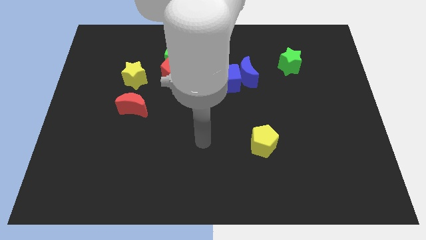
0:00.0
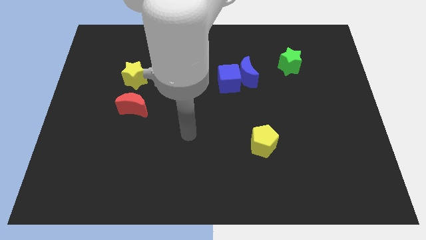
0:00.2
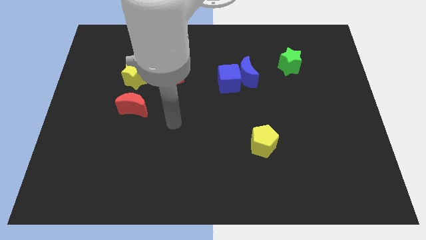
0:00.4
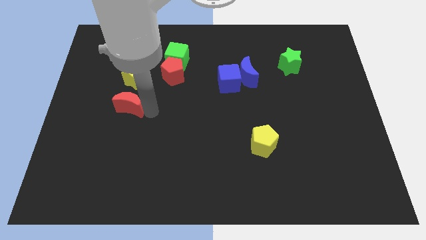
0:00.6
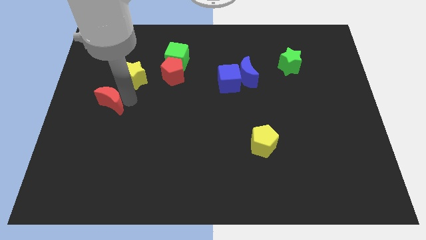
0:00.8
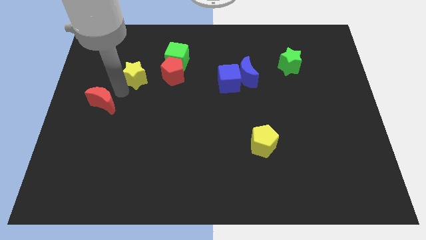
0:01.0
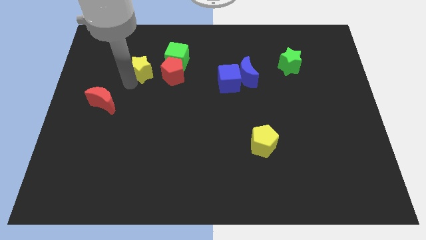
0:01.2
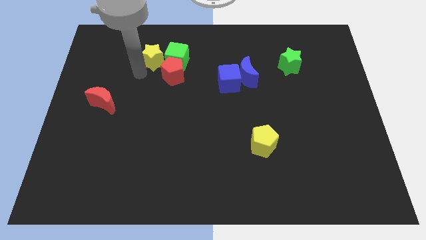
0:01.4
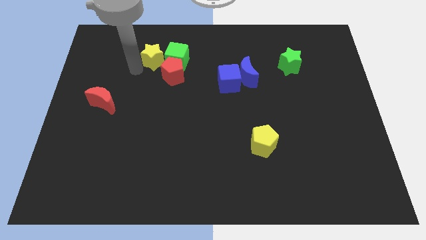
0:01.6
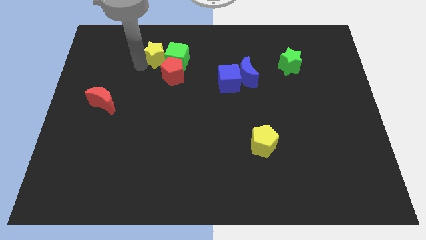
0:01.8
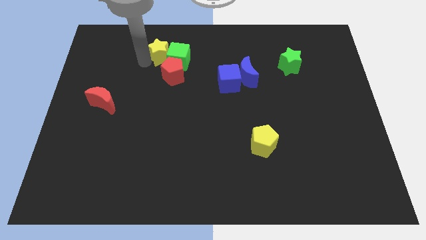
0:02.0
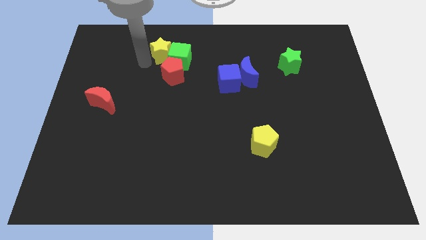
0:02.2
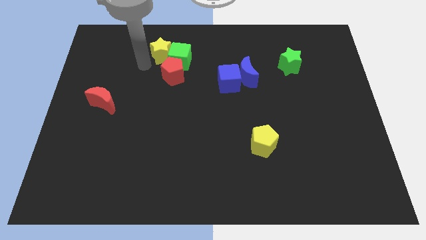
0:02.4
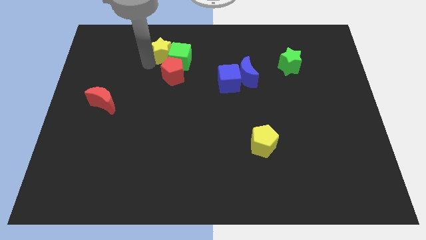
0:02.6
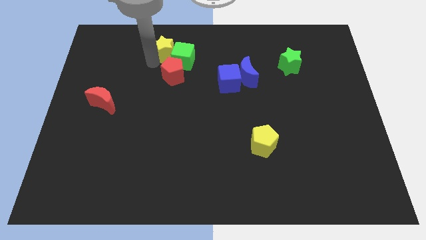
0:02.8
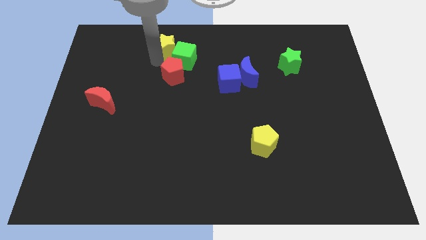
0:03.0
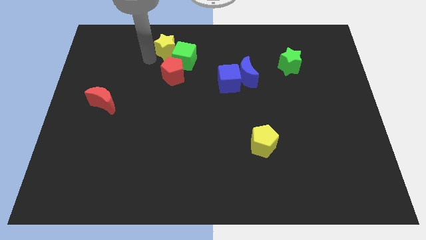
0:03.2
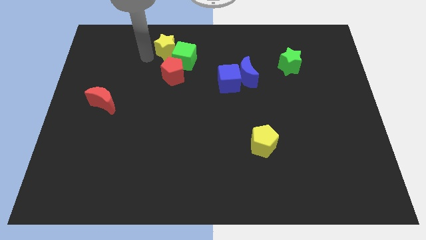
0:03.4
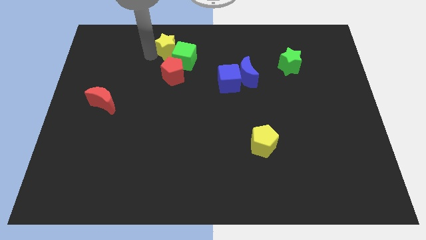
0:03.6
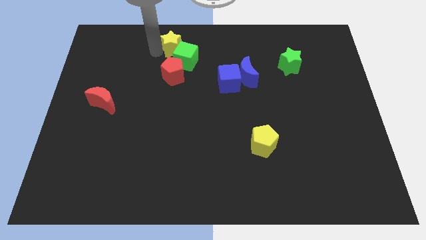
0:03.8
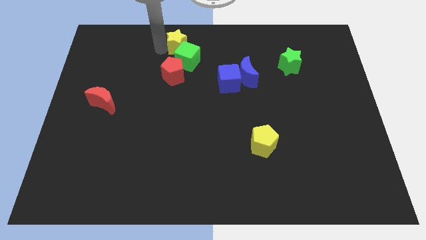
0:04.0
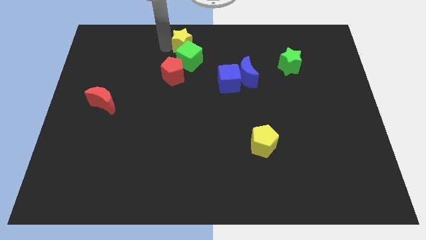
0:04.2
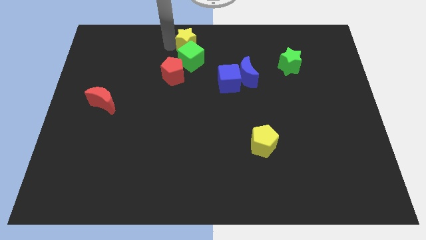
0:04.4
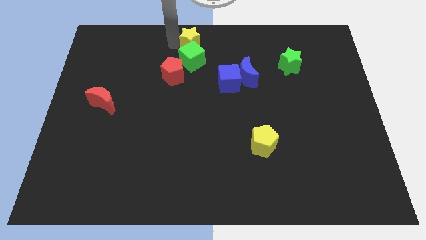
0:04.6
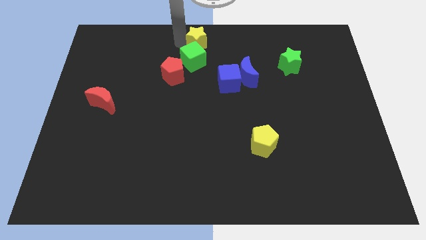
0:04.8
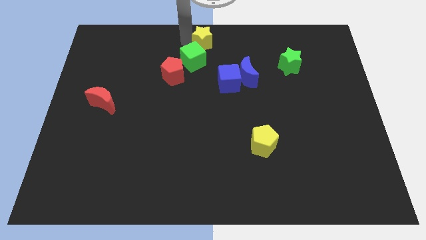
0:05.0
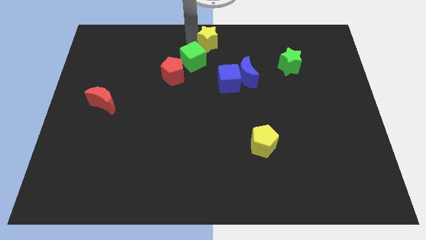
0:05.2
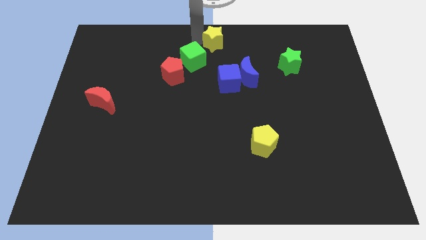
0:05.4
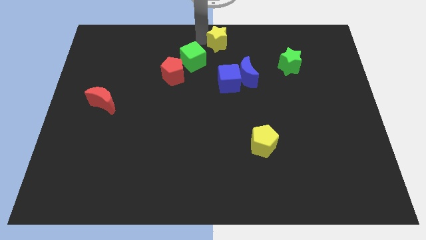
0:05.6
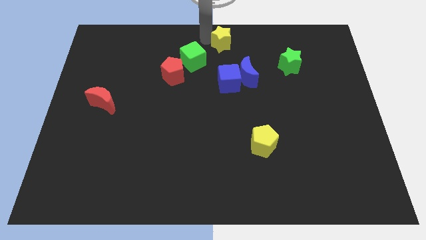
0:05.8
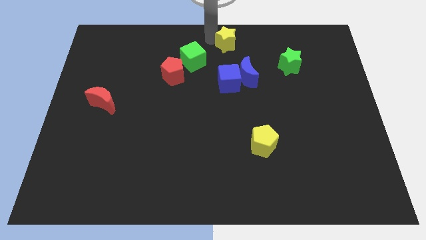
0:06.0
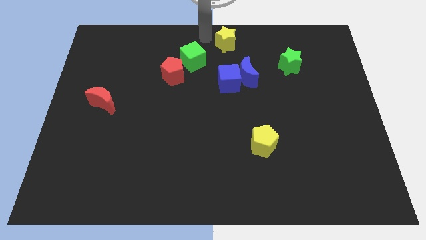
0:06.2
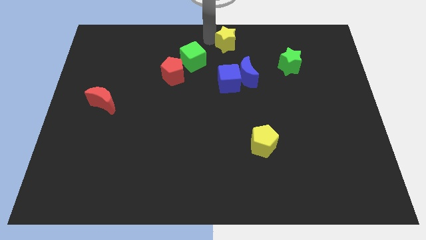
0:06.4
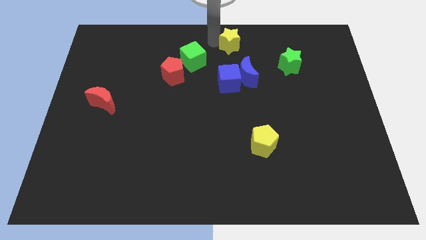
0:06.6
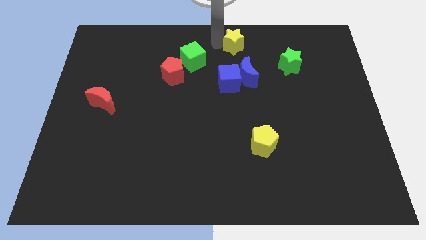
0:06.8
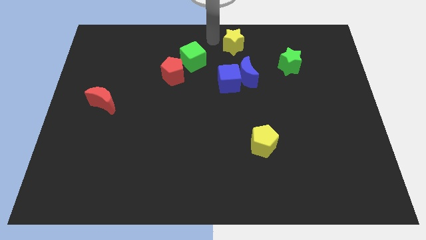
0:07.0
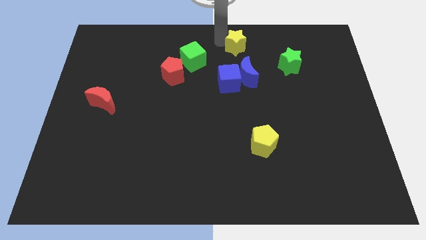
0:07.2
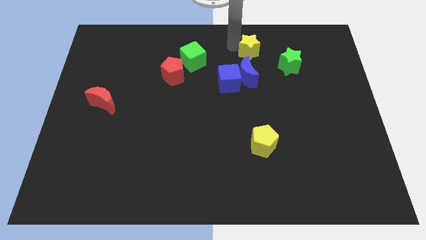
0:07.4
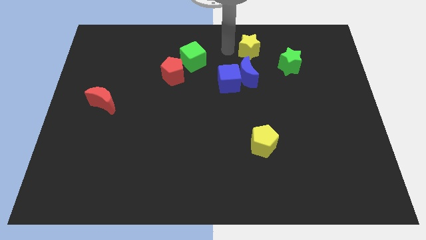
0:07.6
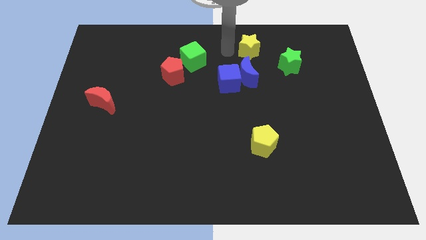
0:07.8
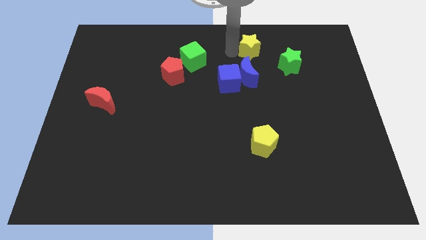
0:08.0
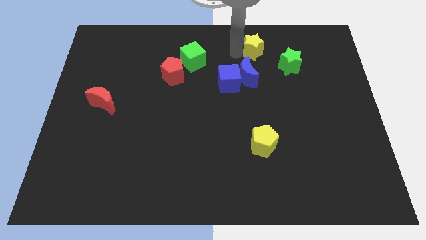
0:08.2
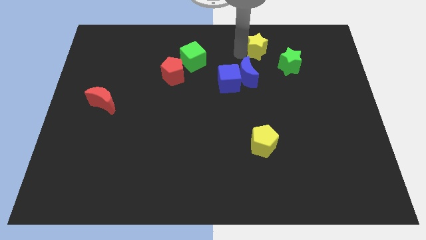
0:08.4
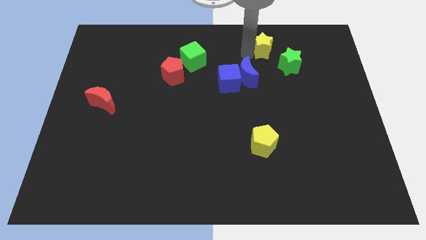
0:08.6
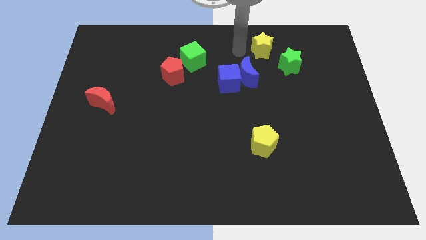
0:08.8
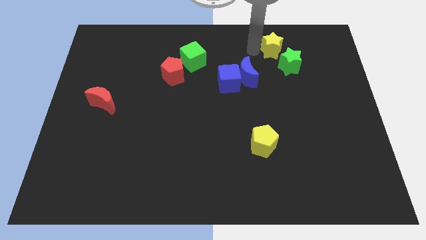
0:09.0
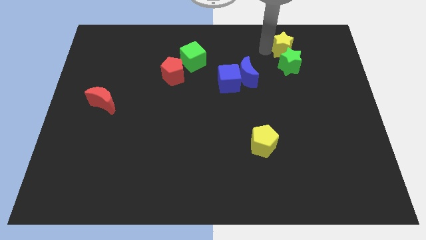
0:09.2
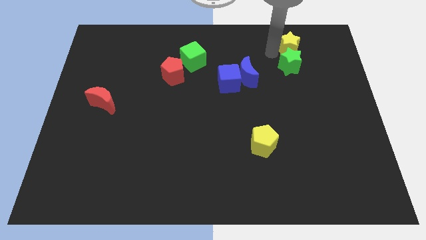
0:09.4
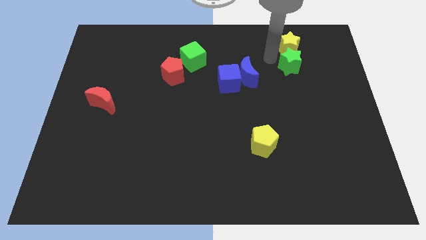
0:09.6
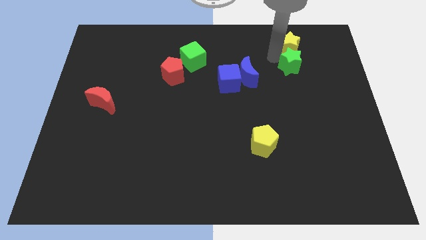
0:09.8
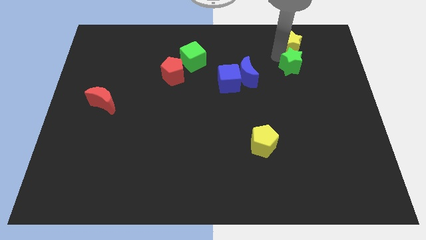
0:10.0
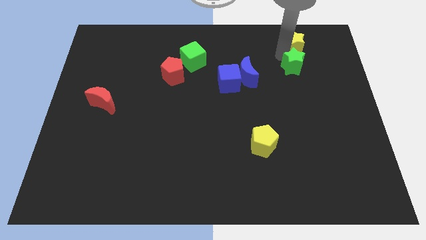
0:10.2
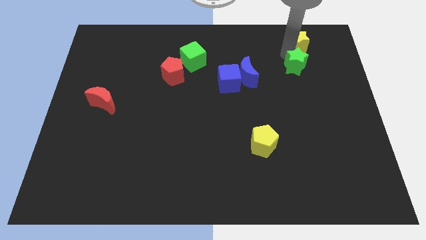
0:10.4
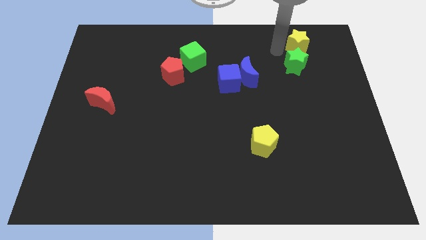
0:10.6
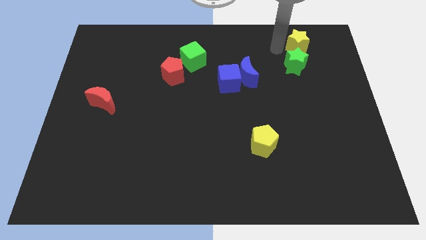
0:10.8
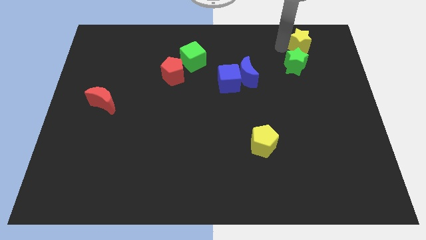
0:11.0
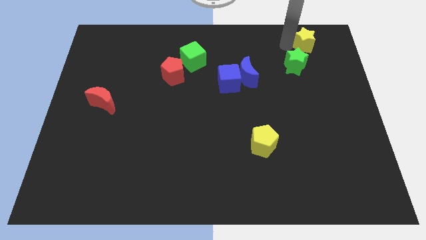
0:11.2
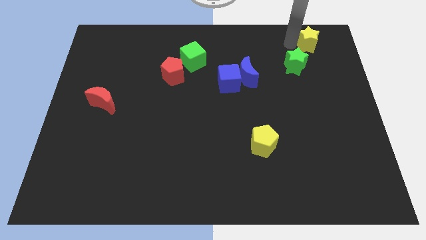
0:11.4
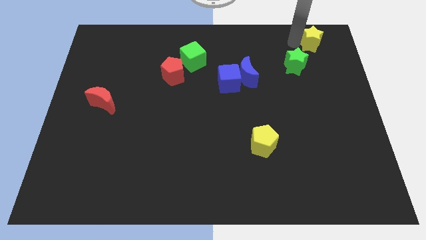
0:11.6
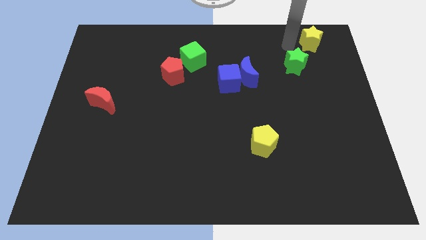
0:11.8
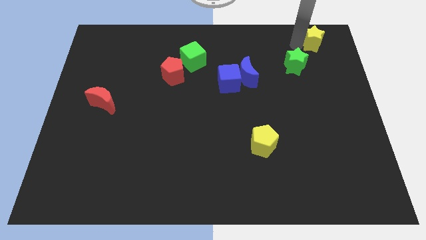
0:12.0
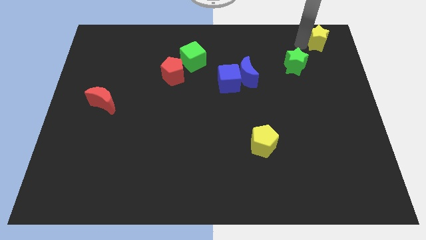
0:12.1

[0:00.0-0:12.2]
move the yellow star to the upper right corner

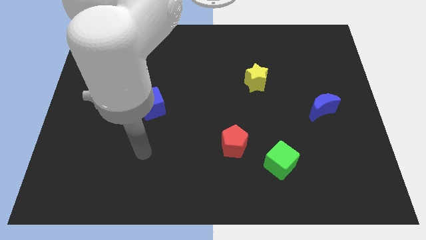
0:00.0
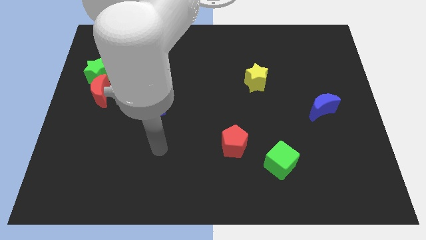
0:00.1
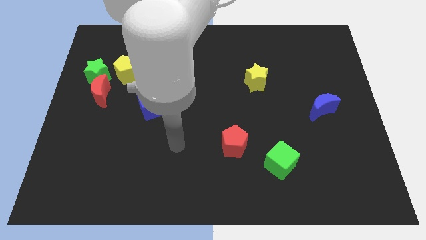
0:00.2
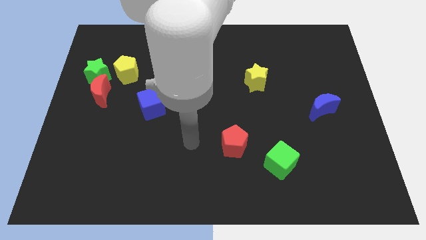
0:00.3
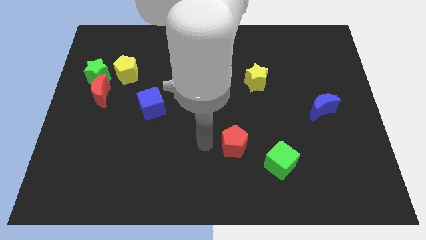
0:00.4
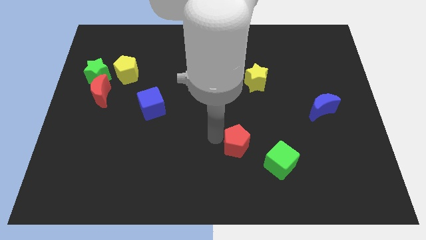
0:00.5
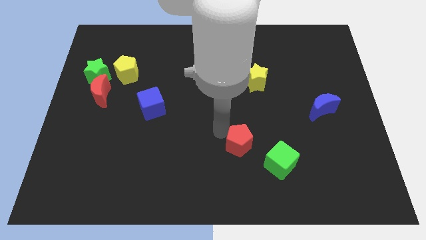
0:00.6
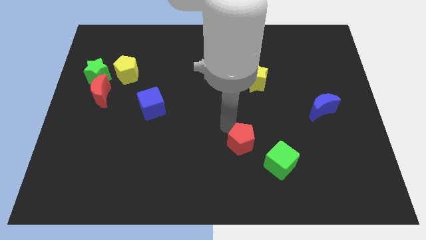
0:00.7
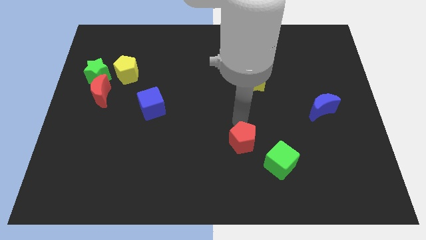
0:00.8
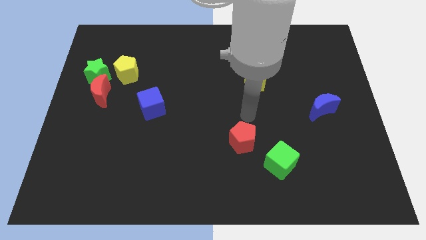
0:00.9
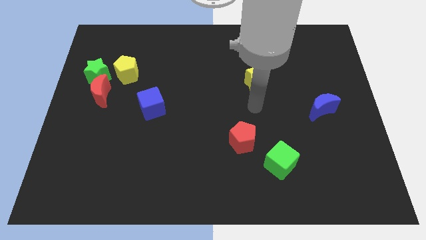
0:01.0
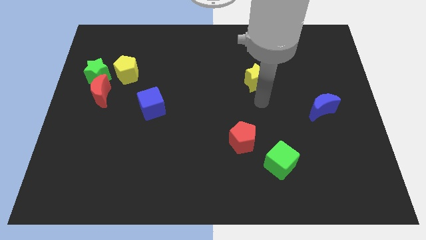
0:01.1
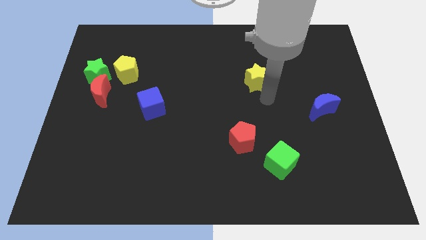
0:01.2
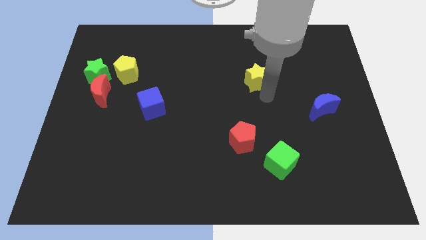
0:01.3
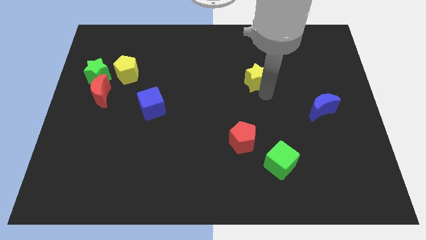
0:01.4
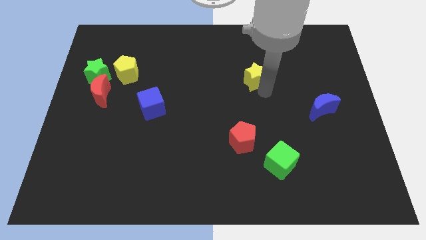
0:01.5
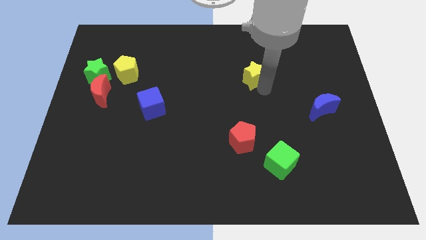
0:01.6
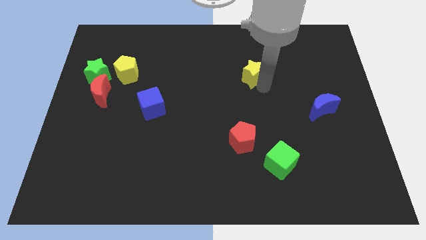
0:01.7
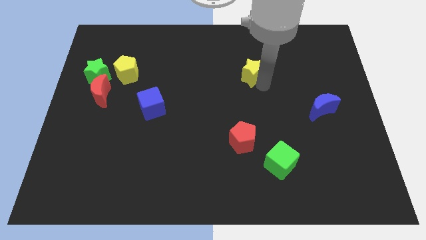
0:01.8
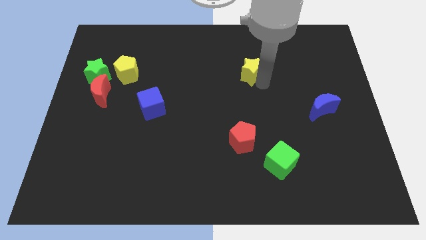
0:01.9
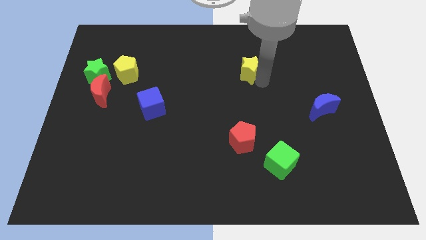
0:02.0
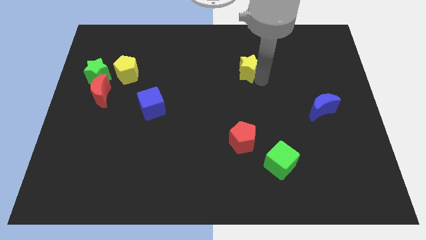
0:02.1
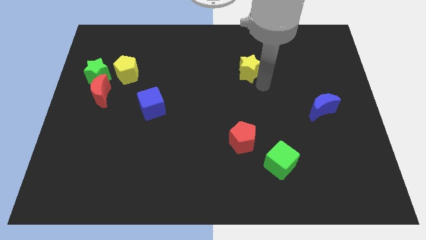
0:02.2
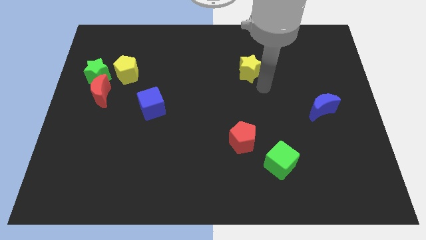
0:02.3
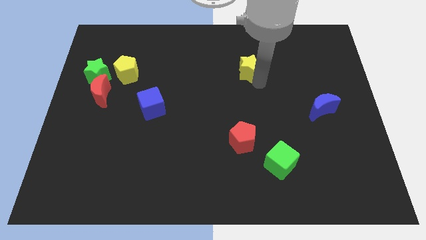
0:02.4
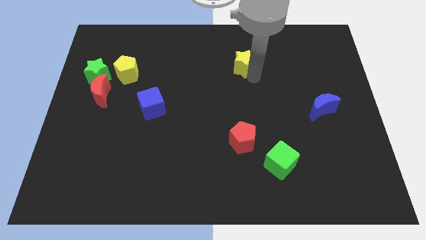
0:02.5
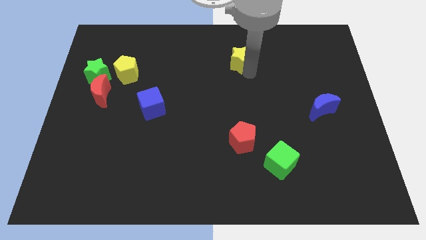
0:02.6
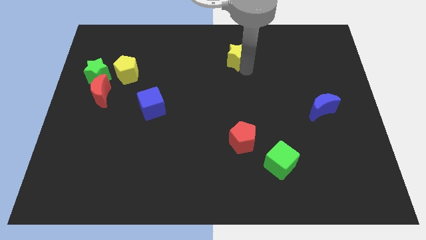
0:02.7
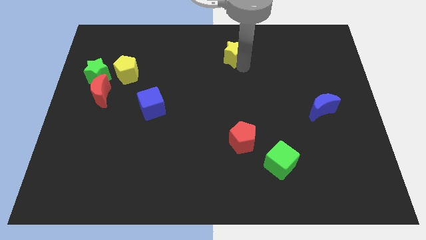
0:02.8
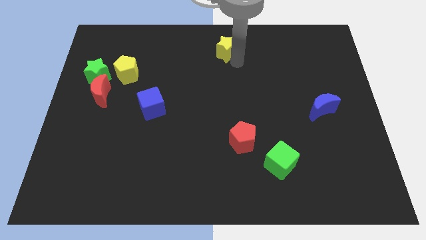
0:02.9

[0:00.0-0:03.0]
move the yellow star to the towards your base
